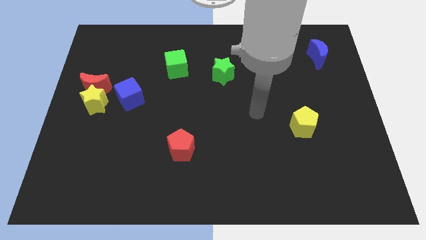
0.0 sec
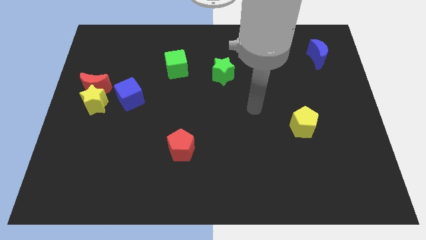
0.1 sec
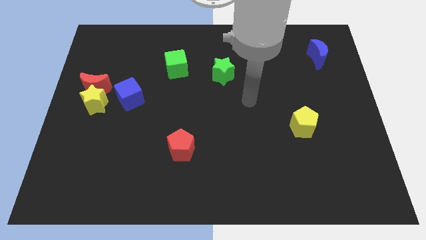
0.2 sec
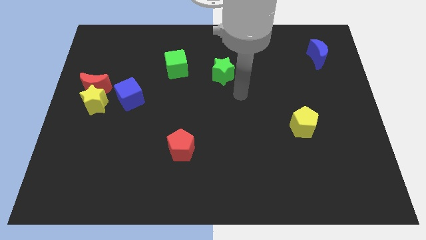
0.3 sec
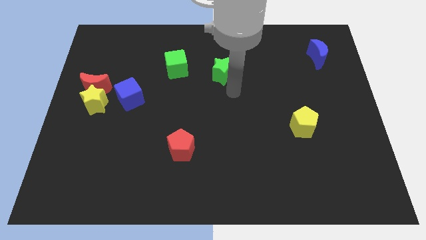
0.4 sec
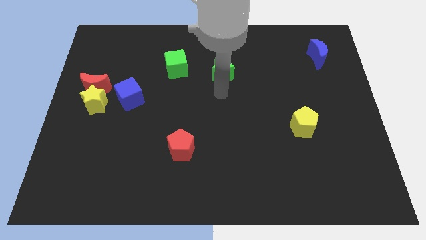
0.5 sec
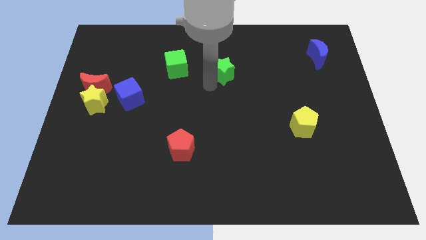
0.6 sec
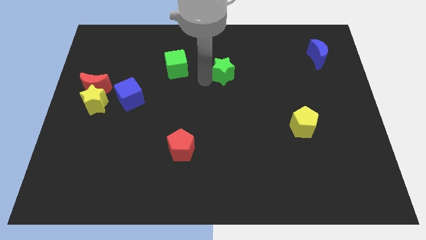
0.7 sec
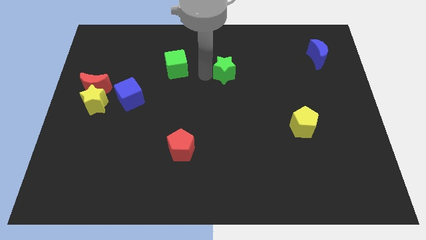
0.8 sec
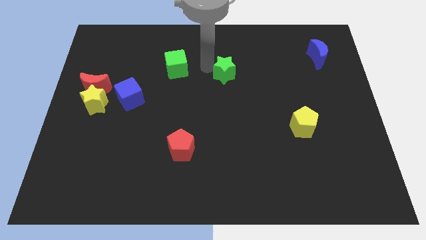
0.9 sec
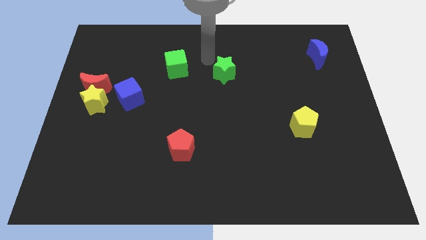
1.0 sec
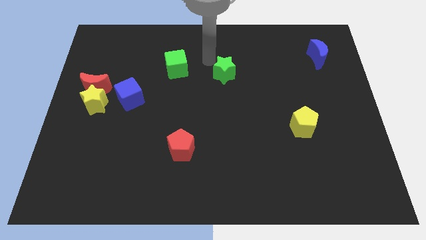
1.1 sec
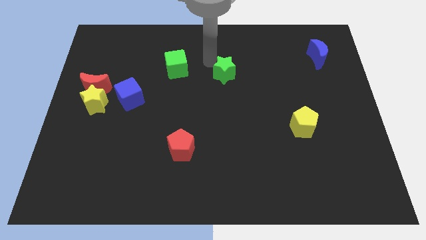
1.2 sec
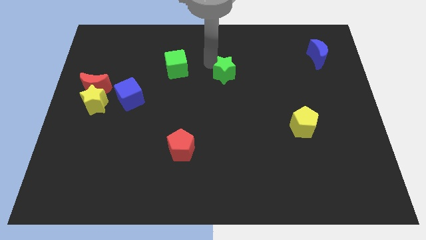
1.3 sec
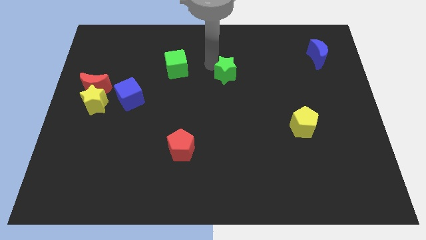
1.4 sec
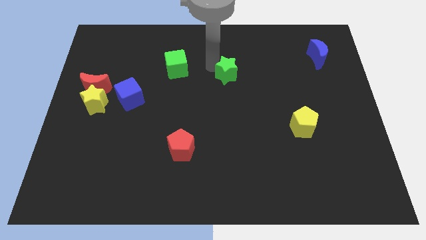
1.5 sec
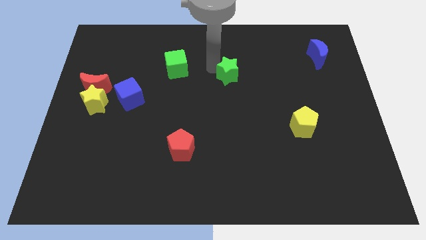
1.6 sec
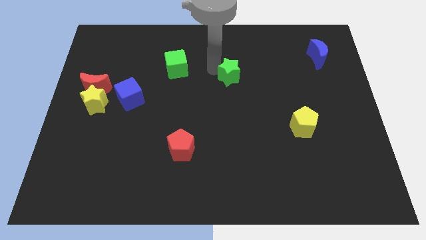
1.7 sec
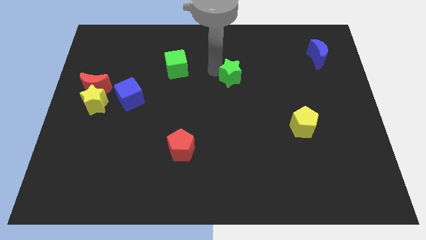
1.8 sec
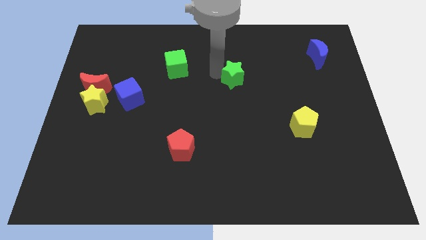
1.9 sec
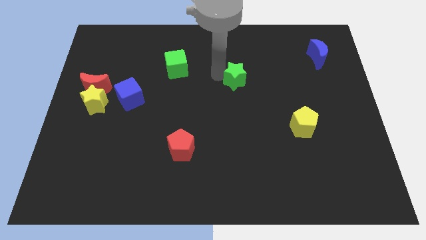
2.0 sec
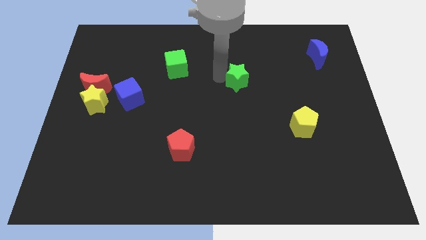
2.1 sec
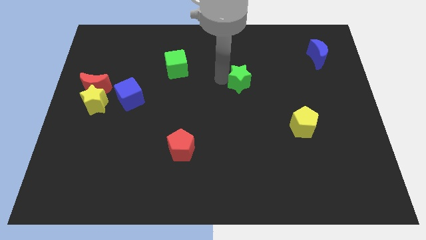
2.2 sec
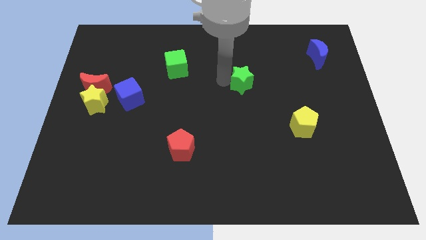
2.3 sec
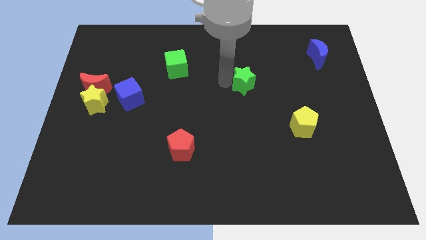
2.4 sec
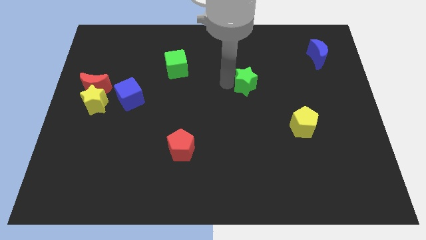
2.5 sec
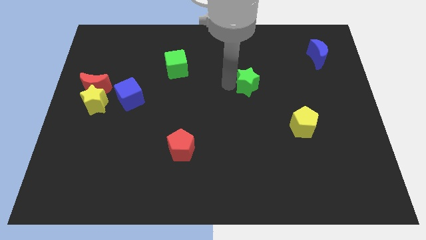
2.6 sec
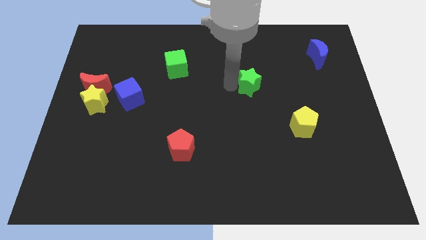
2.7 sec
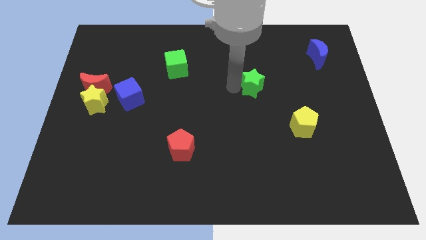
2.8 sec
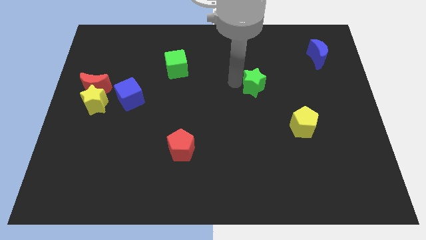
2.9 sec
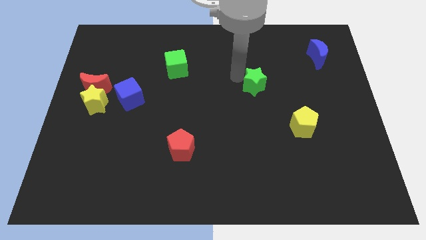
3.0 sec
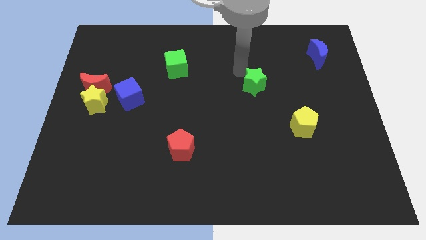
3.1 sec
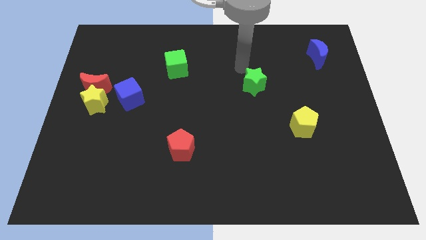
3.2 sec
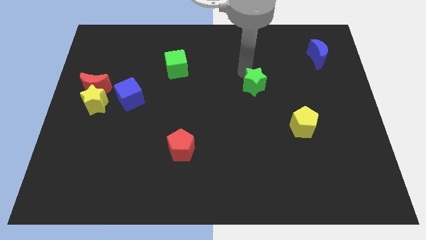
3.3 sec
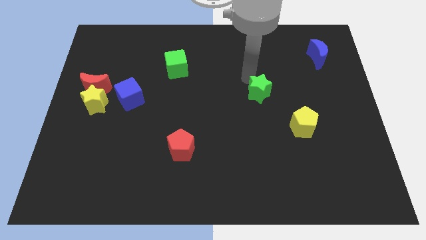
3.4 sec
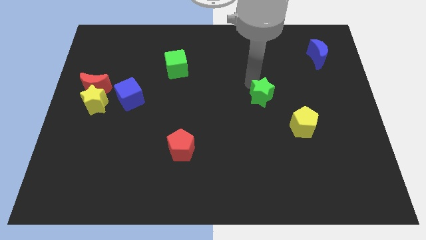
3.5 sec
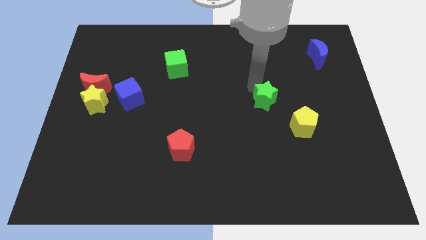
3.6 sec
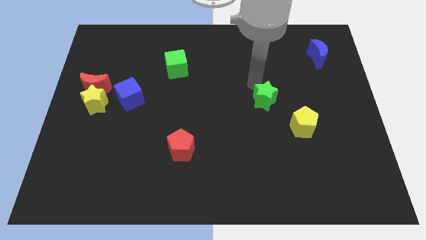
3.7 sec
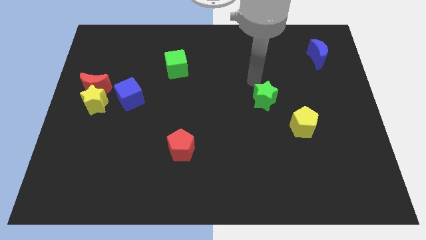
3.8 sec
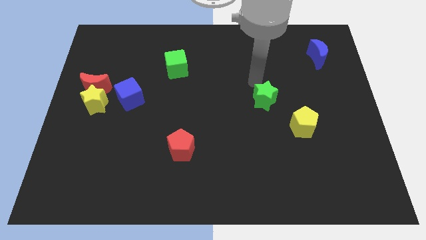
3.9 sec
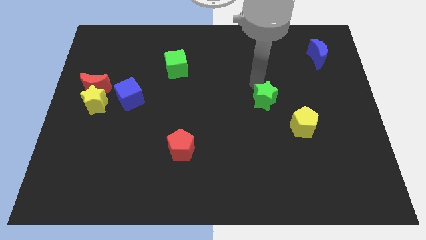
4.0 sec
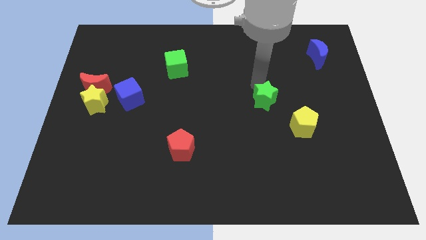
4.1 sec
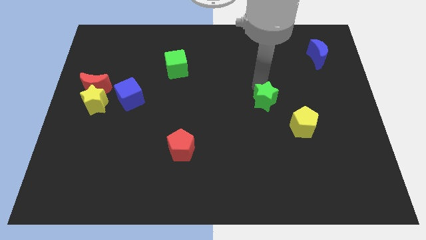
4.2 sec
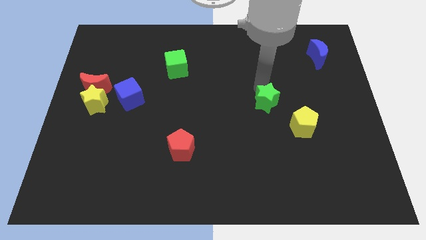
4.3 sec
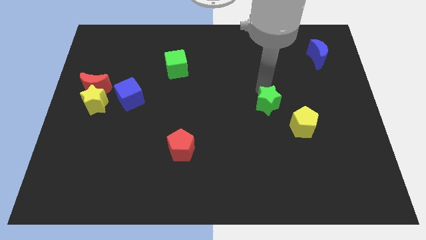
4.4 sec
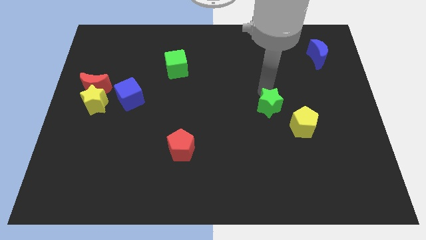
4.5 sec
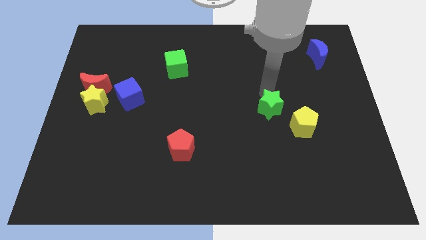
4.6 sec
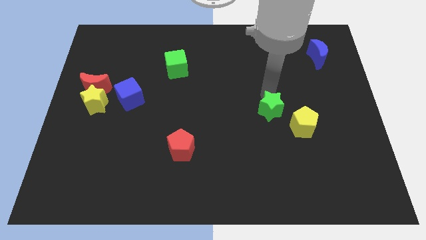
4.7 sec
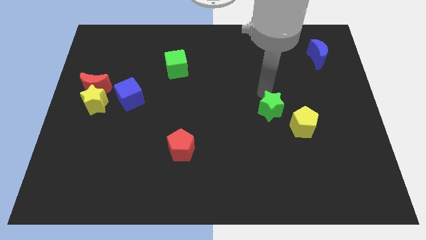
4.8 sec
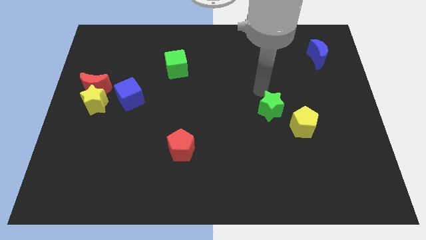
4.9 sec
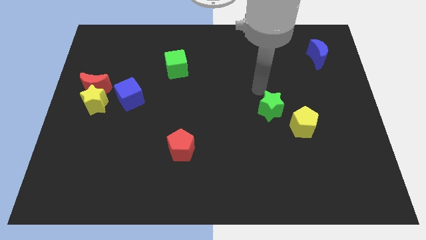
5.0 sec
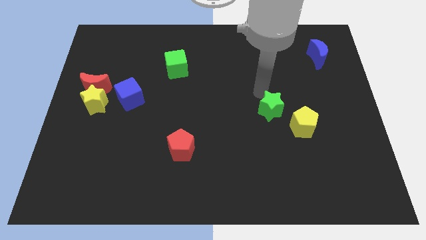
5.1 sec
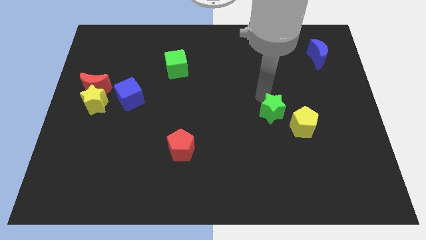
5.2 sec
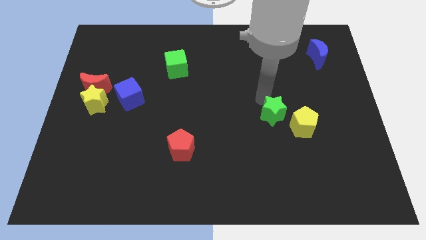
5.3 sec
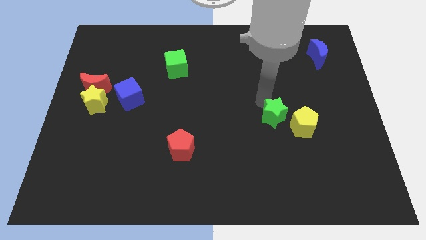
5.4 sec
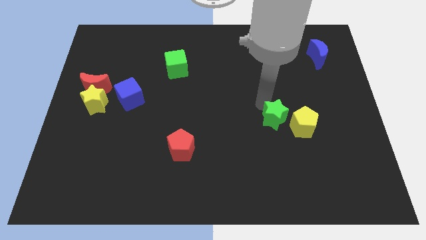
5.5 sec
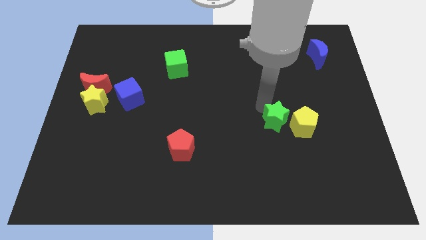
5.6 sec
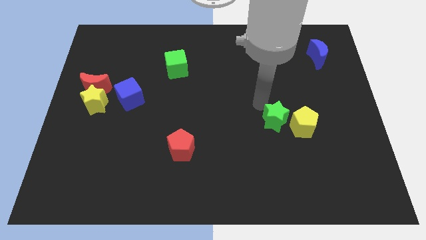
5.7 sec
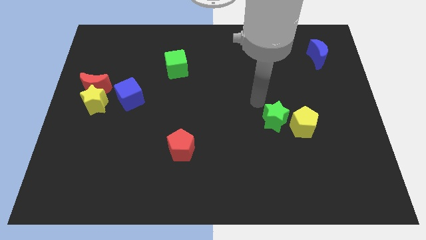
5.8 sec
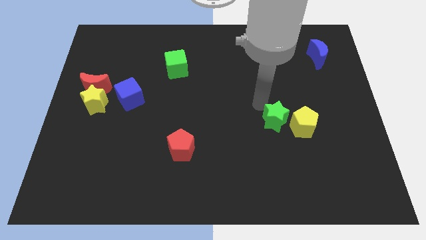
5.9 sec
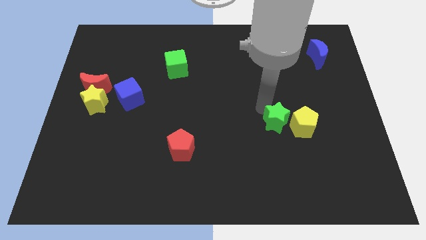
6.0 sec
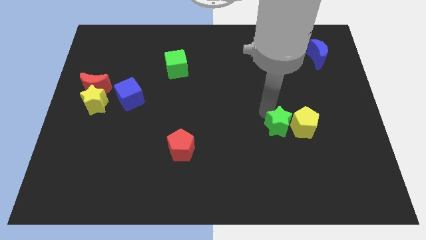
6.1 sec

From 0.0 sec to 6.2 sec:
push the green star downwards and then right

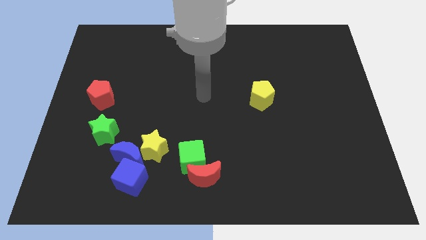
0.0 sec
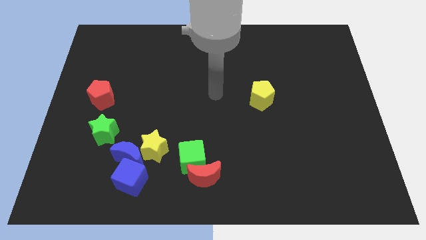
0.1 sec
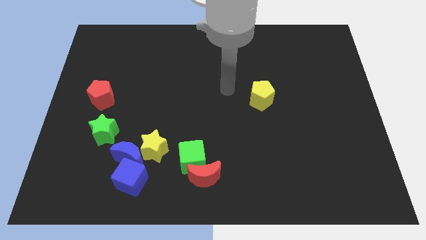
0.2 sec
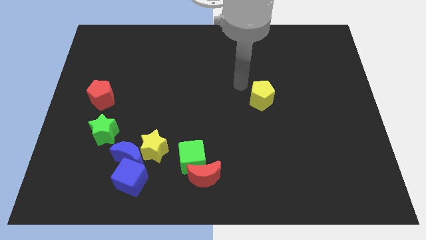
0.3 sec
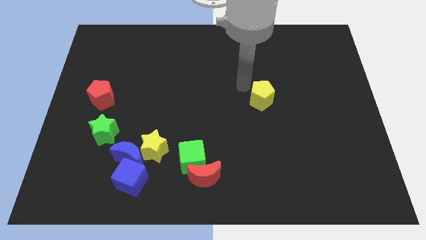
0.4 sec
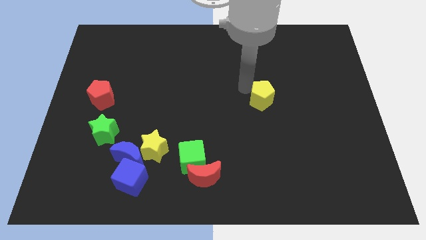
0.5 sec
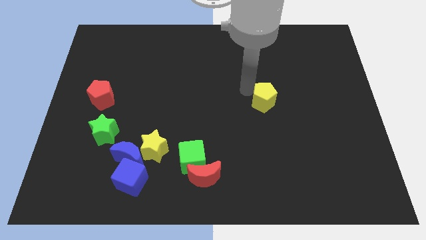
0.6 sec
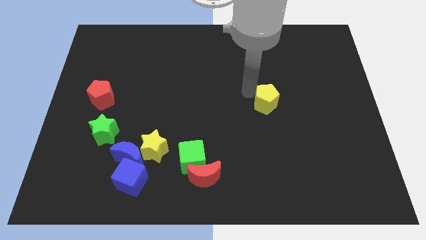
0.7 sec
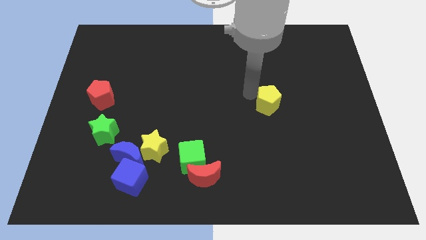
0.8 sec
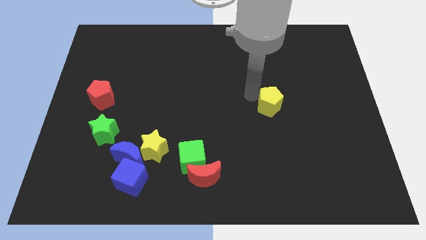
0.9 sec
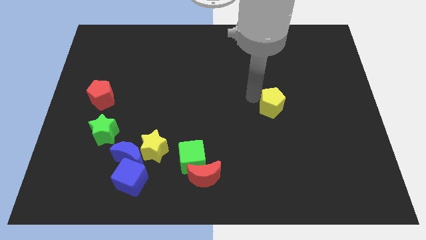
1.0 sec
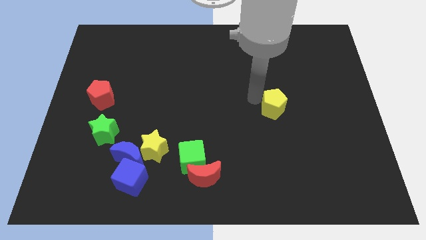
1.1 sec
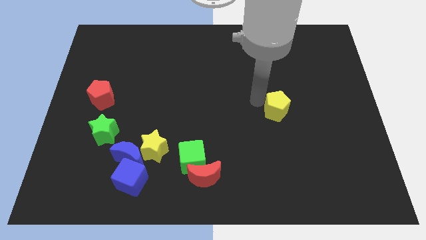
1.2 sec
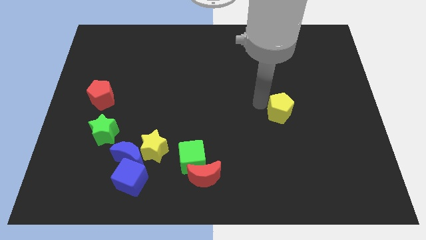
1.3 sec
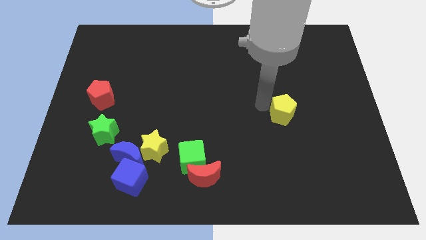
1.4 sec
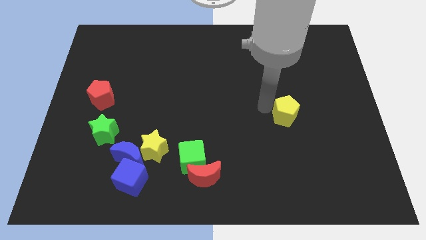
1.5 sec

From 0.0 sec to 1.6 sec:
slightly move the yellow pentagon down and right diagonally

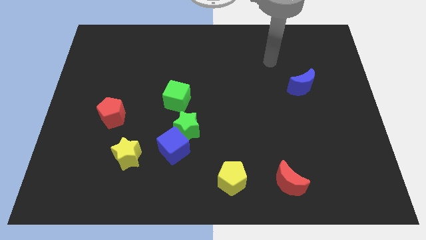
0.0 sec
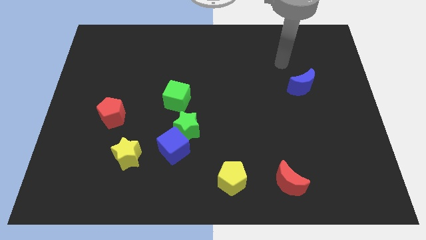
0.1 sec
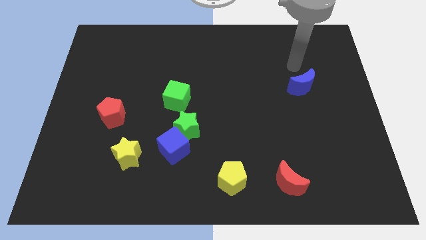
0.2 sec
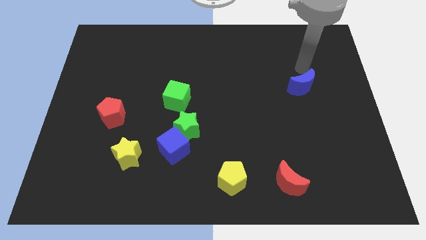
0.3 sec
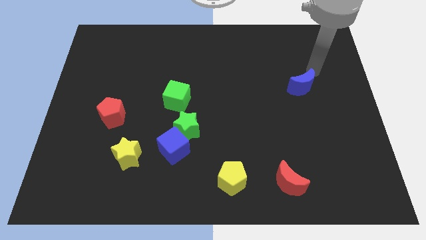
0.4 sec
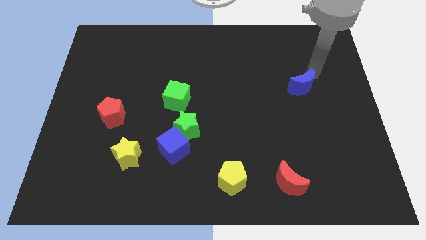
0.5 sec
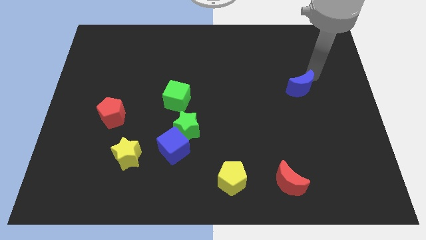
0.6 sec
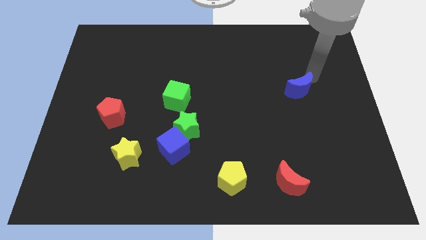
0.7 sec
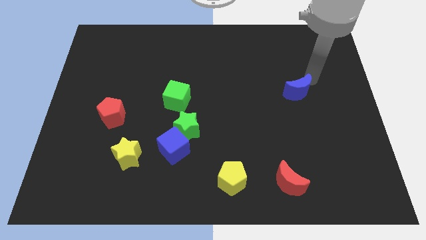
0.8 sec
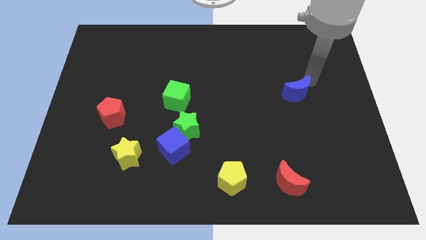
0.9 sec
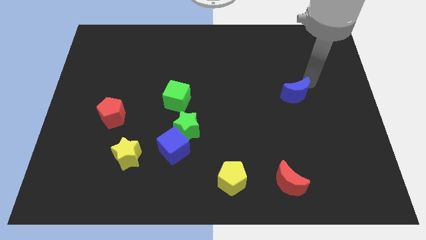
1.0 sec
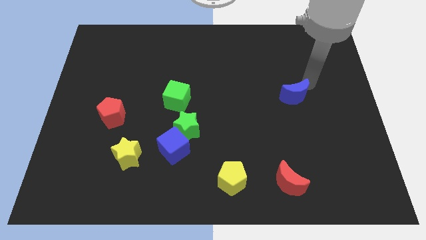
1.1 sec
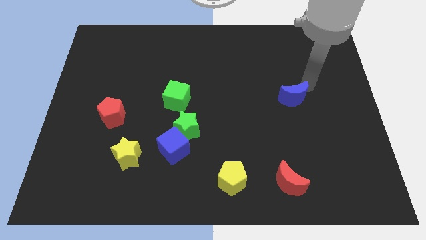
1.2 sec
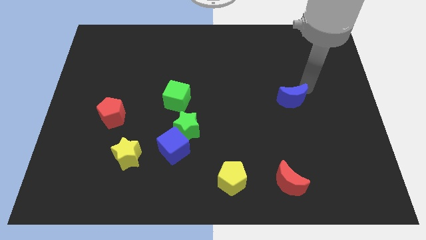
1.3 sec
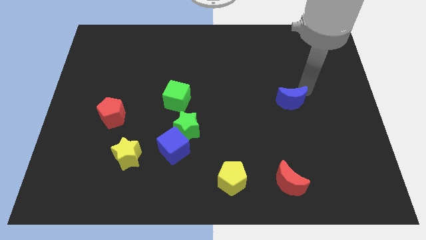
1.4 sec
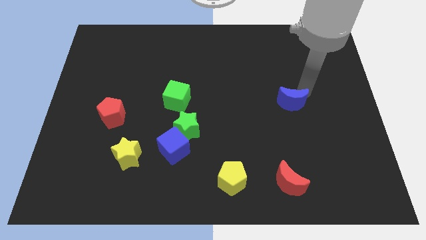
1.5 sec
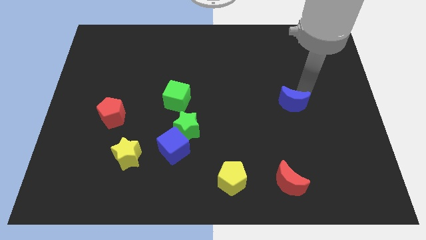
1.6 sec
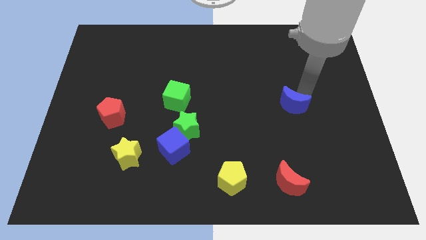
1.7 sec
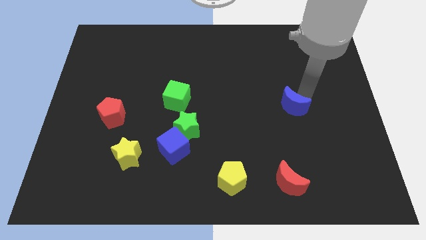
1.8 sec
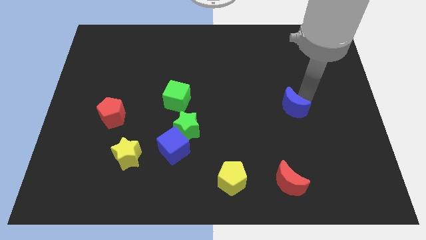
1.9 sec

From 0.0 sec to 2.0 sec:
slightly push the blue moon downwards and then left
